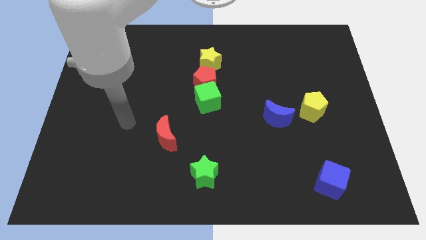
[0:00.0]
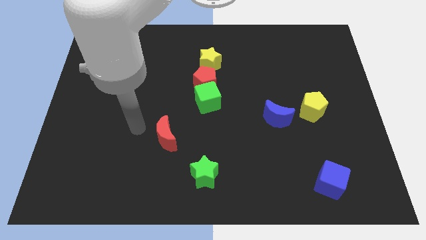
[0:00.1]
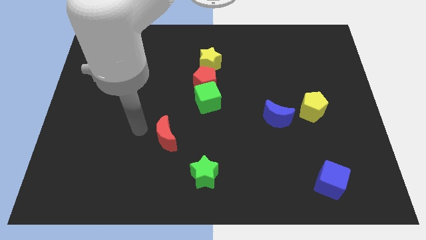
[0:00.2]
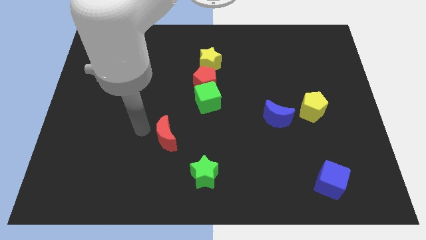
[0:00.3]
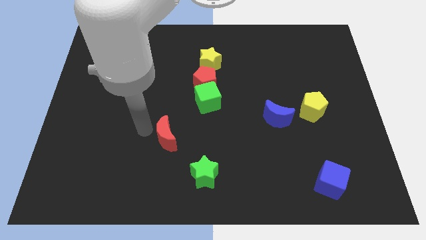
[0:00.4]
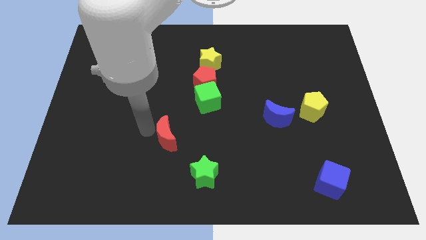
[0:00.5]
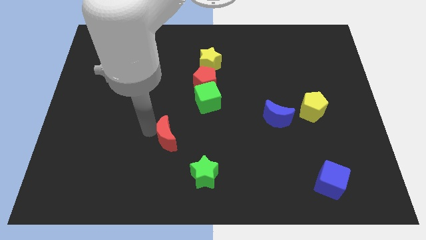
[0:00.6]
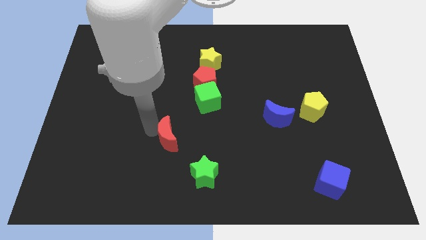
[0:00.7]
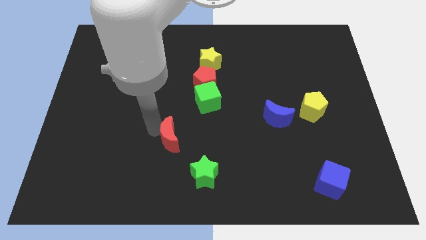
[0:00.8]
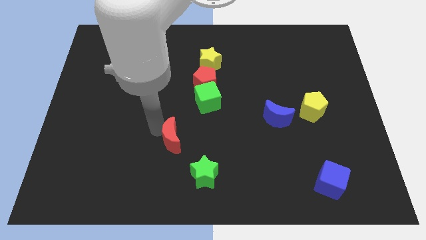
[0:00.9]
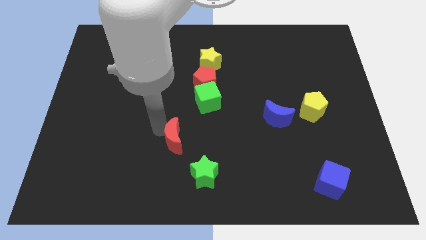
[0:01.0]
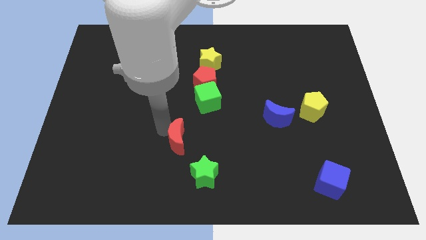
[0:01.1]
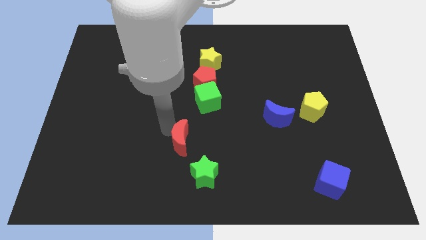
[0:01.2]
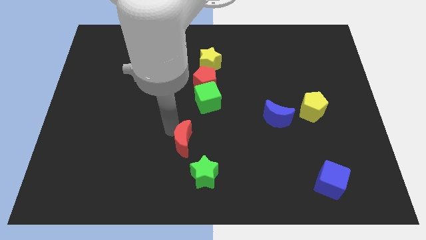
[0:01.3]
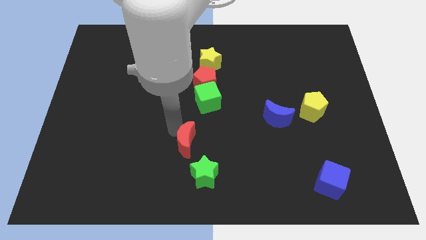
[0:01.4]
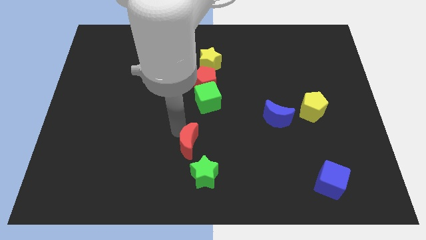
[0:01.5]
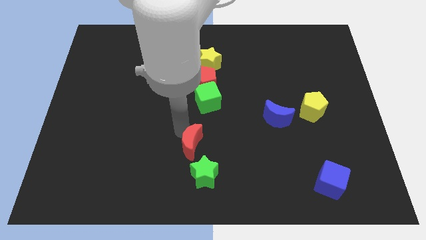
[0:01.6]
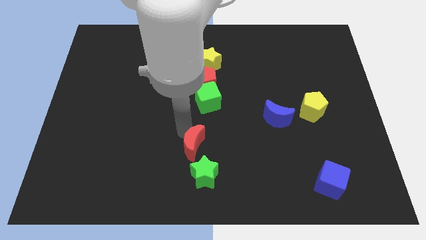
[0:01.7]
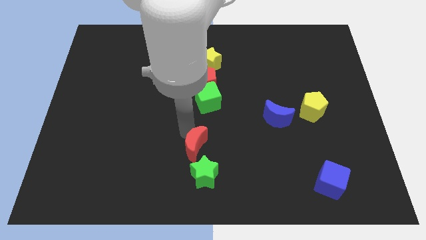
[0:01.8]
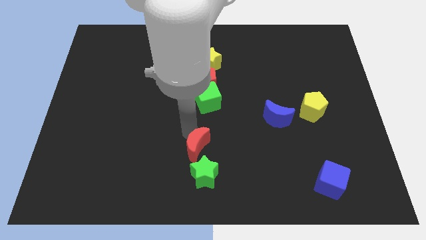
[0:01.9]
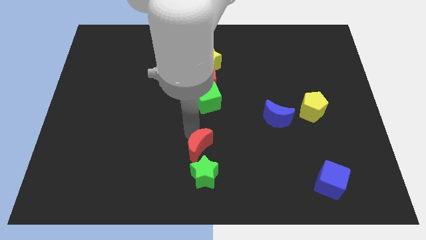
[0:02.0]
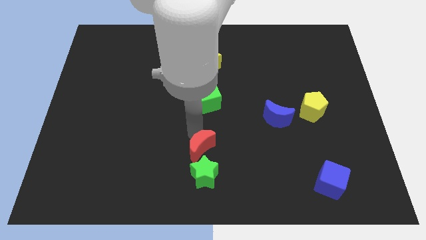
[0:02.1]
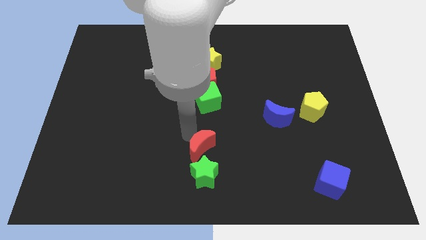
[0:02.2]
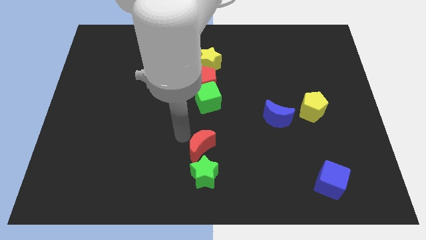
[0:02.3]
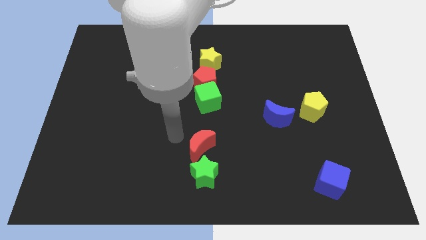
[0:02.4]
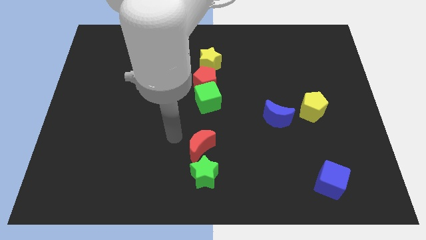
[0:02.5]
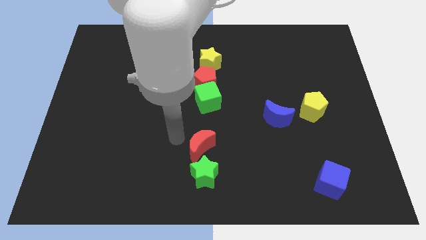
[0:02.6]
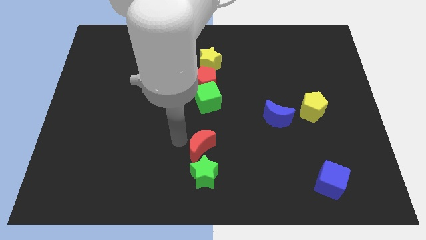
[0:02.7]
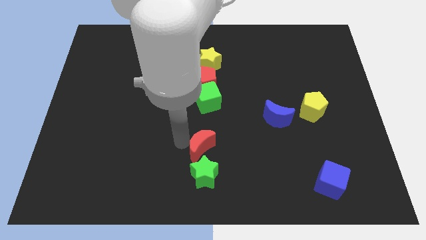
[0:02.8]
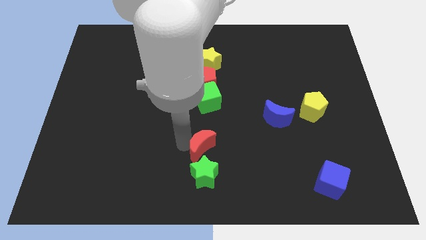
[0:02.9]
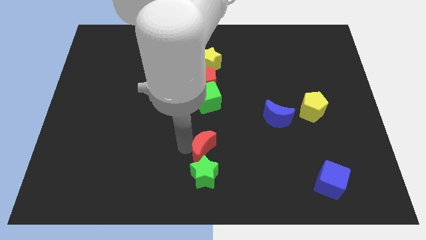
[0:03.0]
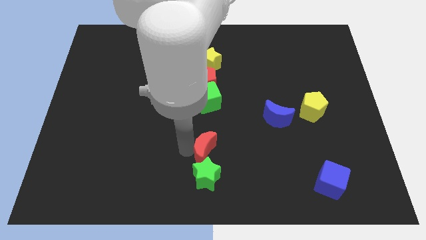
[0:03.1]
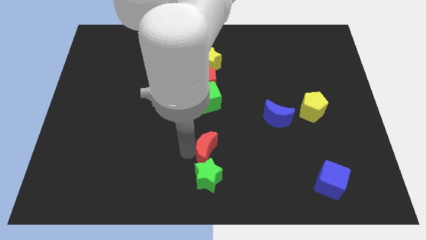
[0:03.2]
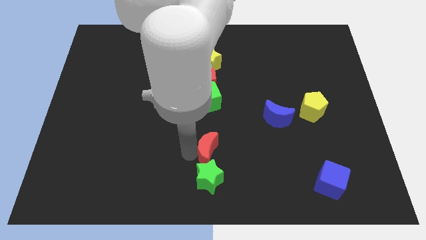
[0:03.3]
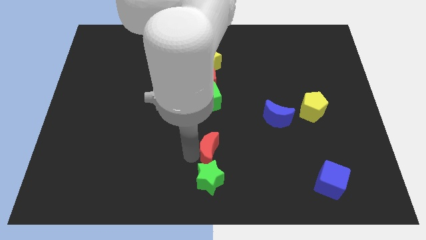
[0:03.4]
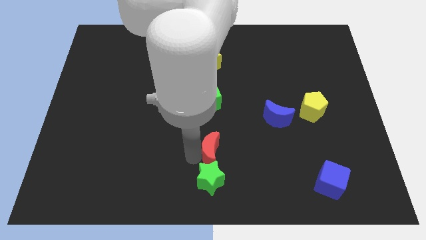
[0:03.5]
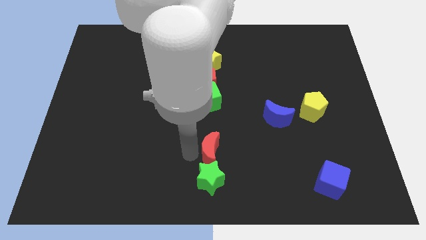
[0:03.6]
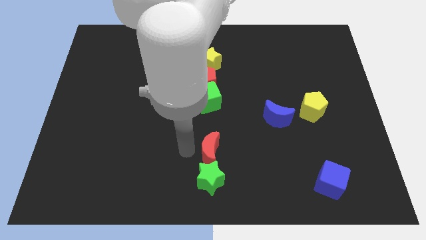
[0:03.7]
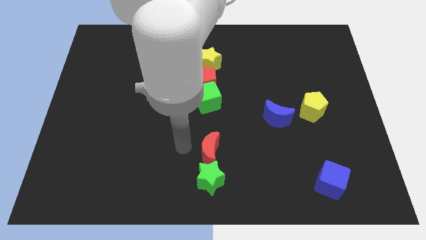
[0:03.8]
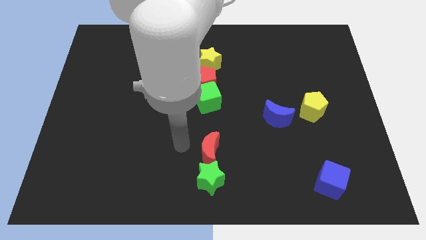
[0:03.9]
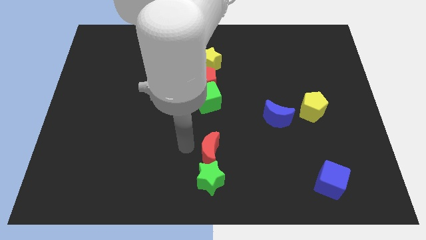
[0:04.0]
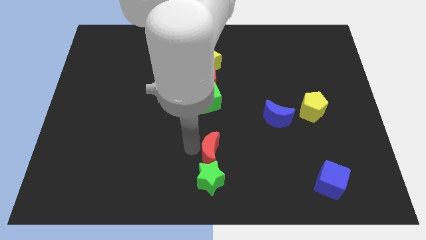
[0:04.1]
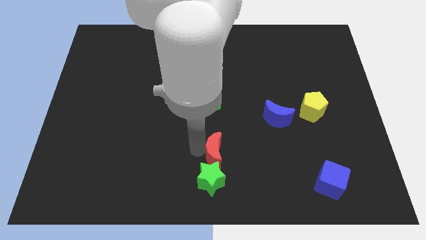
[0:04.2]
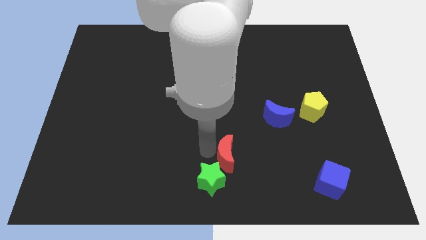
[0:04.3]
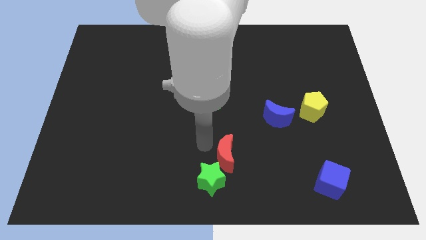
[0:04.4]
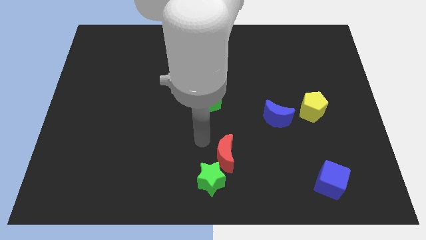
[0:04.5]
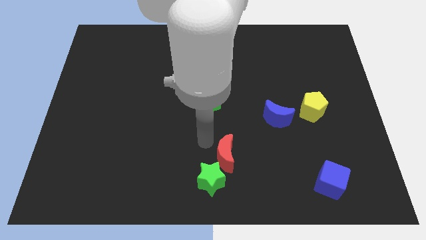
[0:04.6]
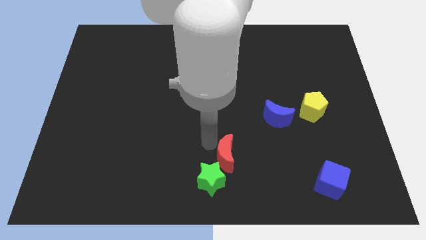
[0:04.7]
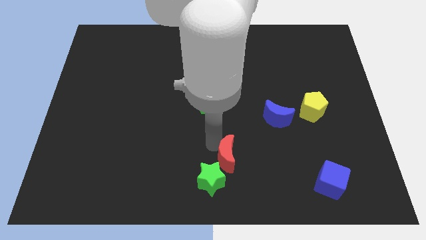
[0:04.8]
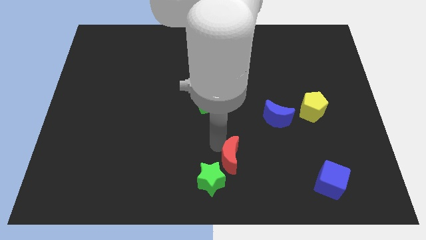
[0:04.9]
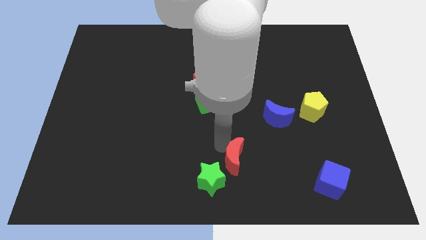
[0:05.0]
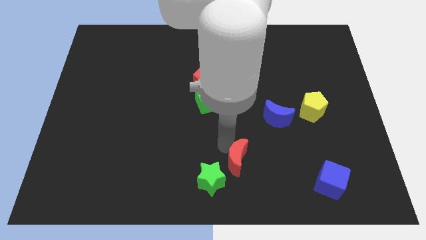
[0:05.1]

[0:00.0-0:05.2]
put the red moon to the right side of the green star

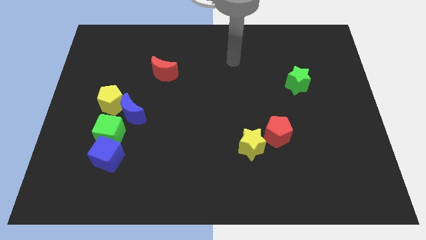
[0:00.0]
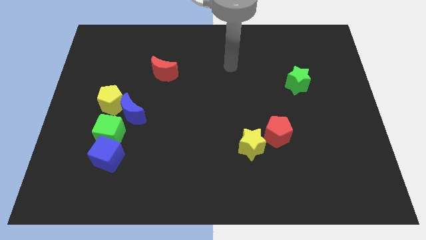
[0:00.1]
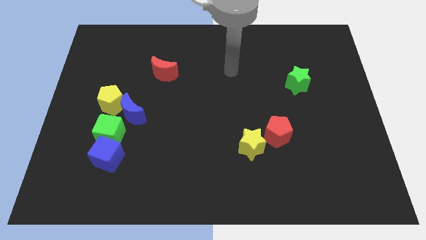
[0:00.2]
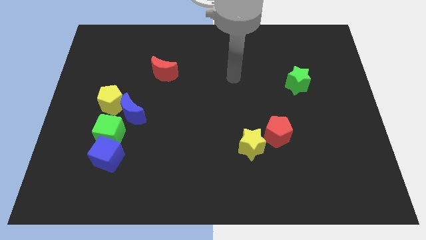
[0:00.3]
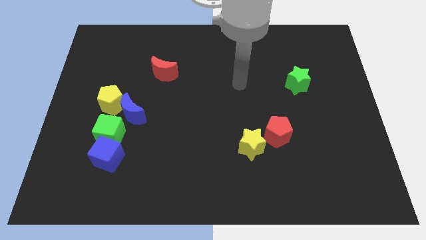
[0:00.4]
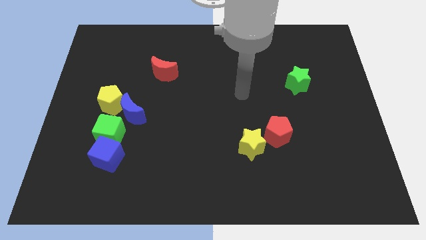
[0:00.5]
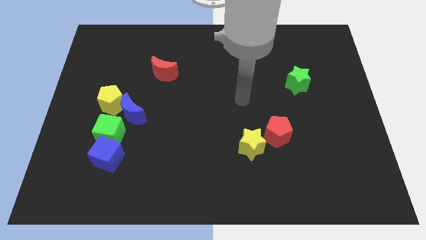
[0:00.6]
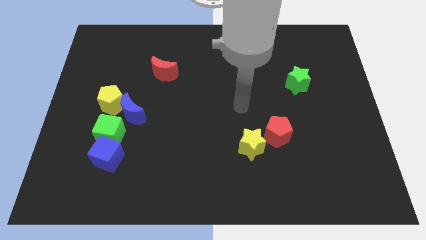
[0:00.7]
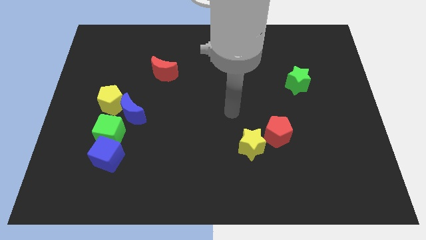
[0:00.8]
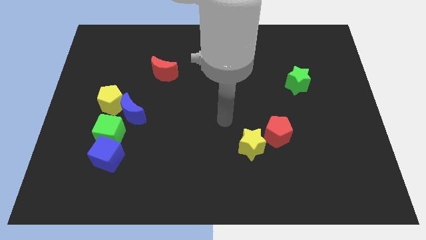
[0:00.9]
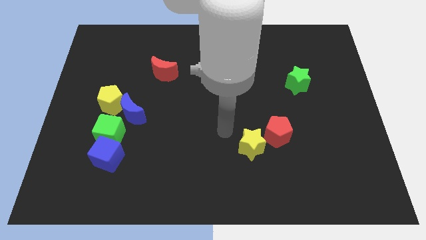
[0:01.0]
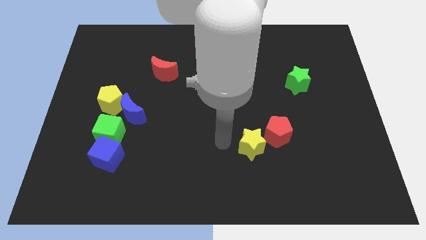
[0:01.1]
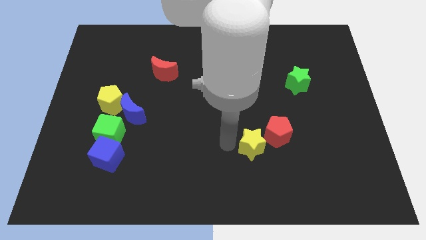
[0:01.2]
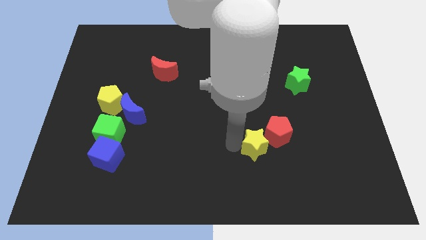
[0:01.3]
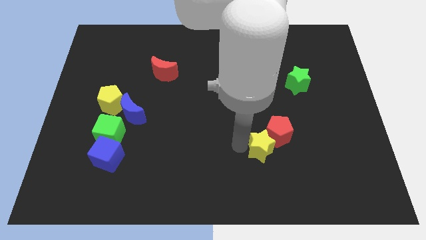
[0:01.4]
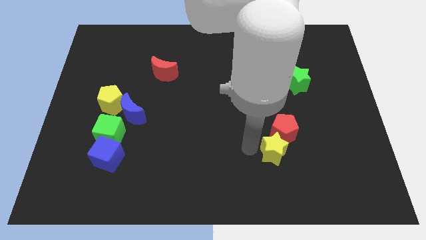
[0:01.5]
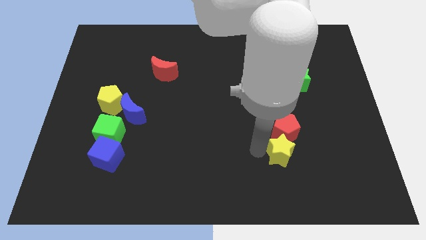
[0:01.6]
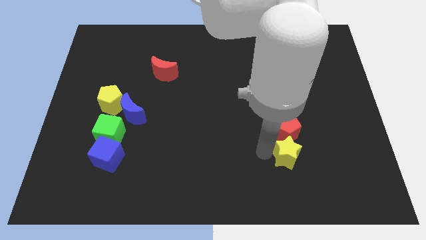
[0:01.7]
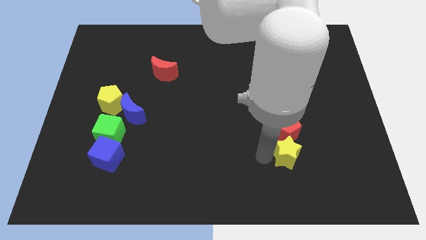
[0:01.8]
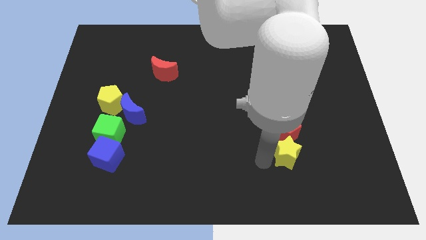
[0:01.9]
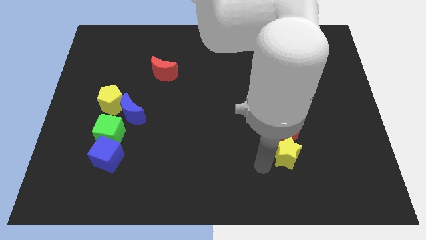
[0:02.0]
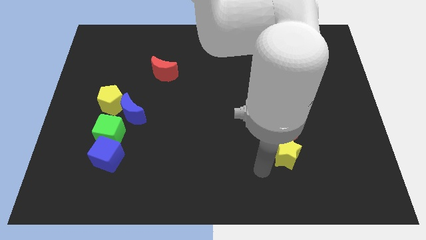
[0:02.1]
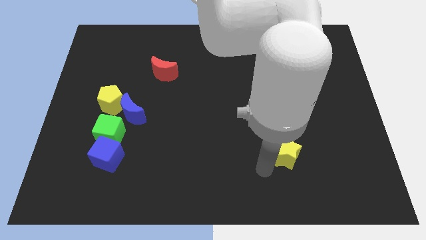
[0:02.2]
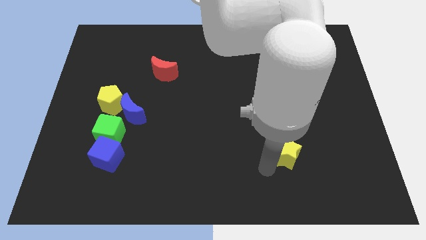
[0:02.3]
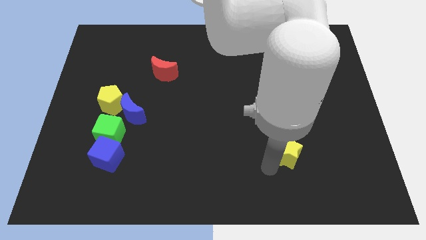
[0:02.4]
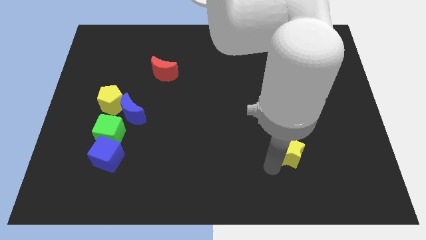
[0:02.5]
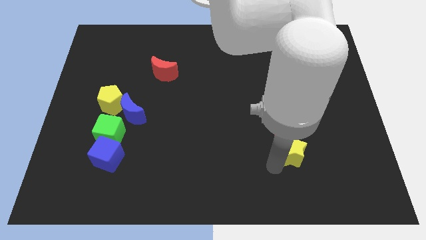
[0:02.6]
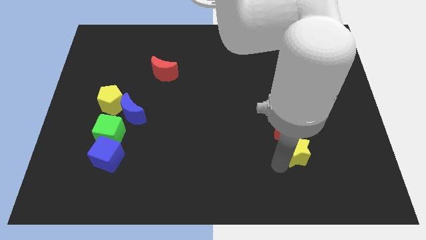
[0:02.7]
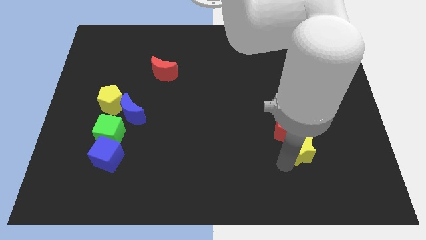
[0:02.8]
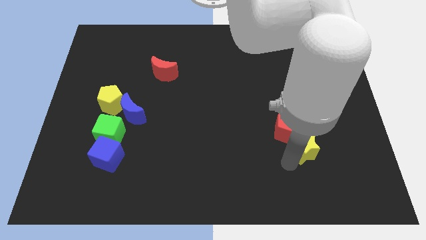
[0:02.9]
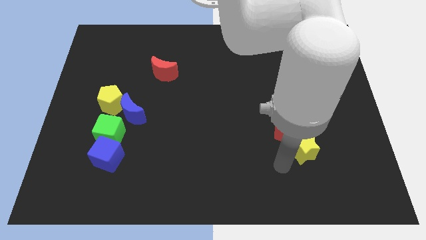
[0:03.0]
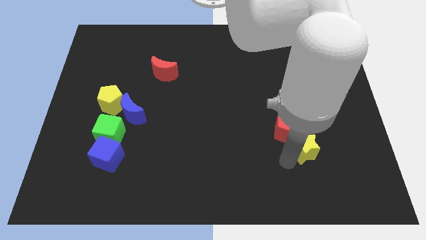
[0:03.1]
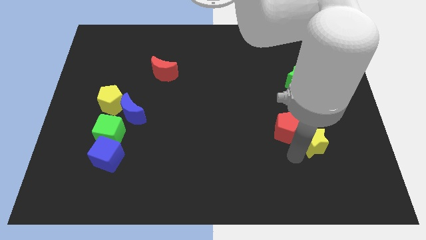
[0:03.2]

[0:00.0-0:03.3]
slide the yellow star right of the red pentagon
